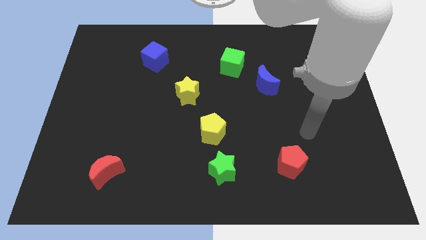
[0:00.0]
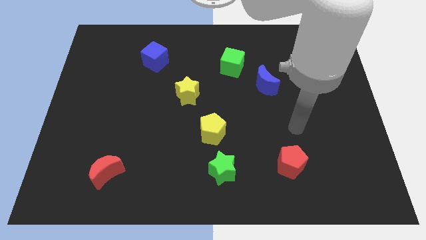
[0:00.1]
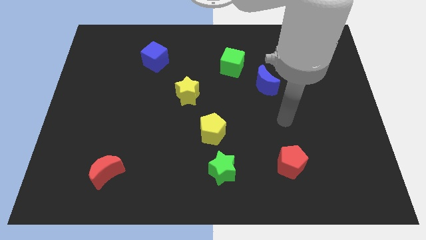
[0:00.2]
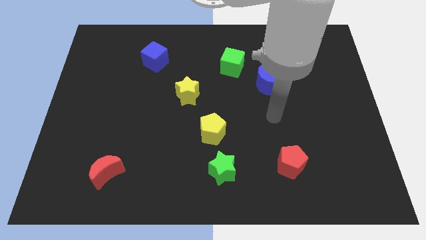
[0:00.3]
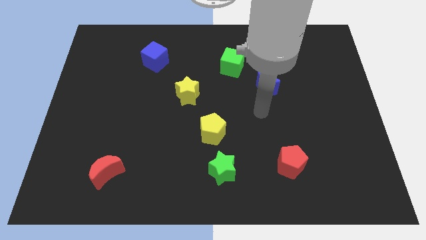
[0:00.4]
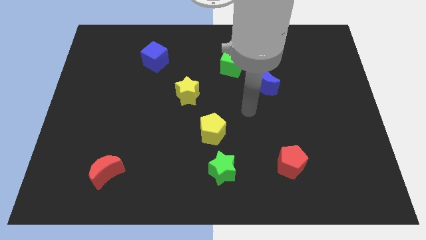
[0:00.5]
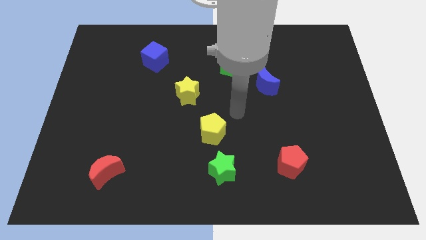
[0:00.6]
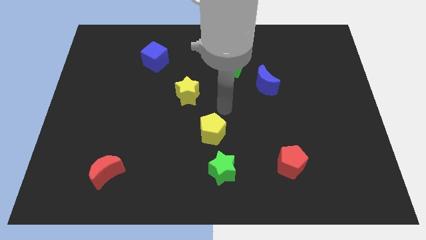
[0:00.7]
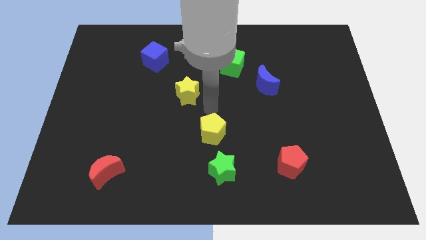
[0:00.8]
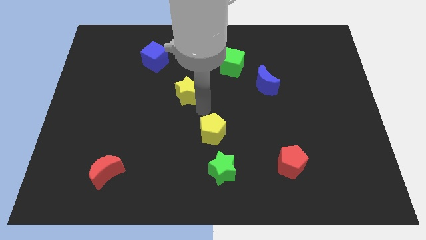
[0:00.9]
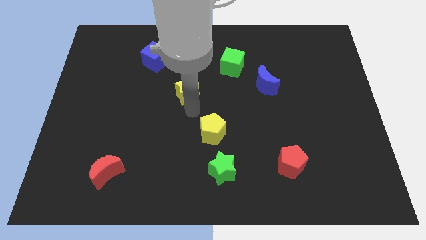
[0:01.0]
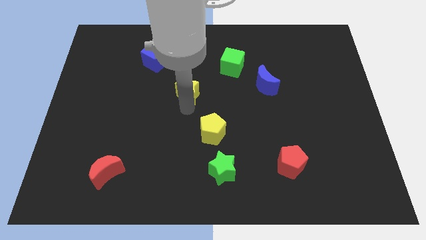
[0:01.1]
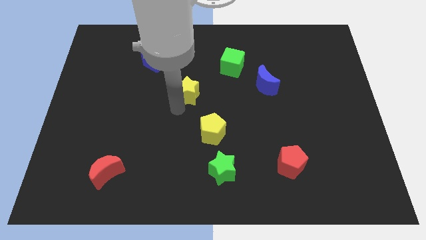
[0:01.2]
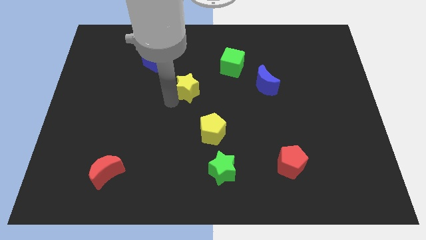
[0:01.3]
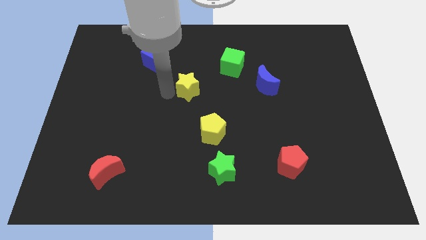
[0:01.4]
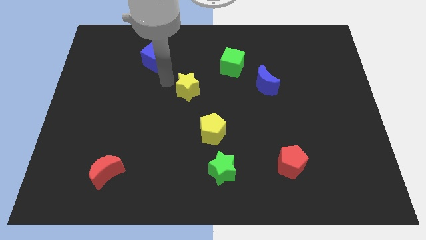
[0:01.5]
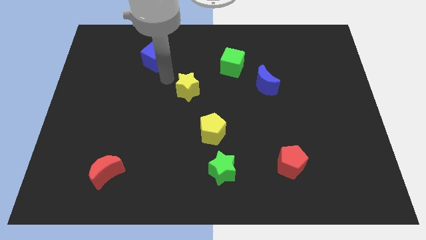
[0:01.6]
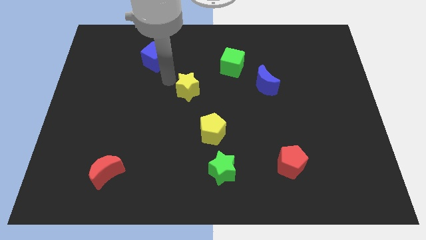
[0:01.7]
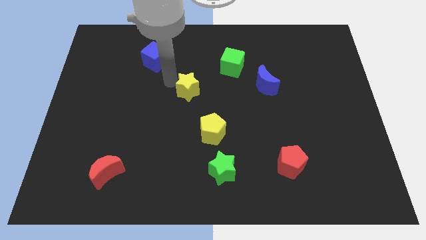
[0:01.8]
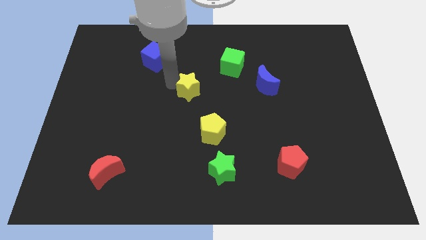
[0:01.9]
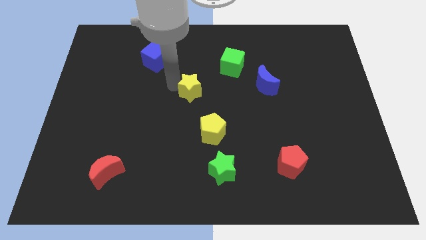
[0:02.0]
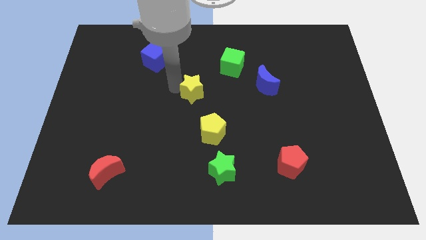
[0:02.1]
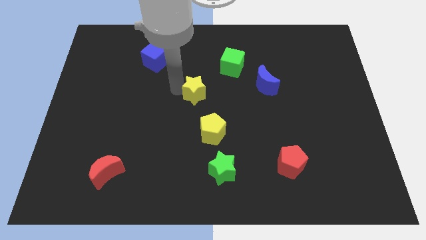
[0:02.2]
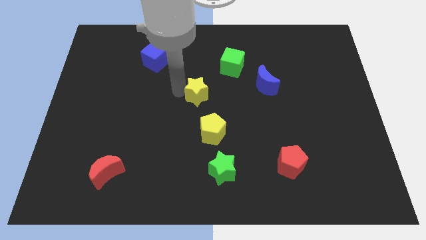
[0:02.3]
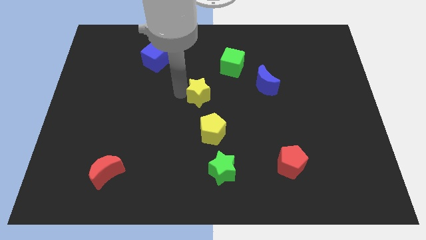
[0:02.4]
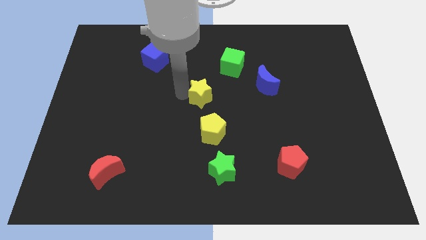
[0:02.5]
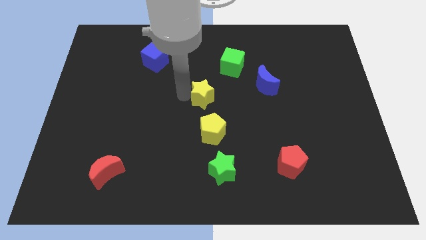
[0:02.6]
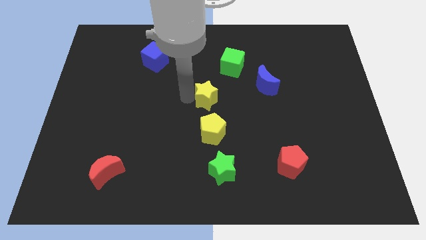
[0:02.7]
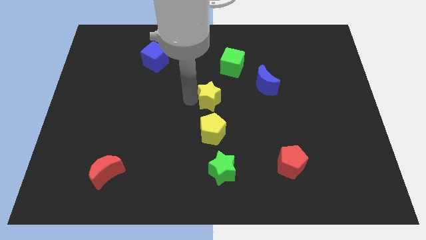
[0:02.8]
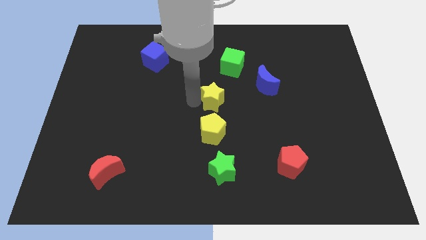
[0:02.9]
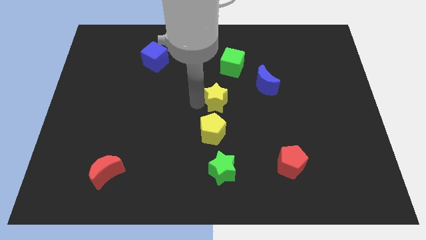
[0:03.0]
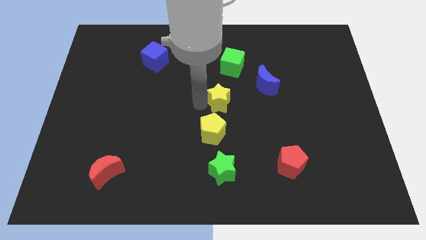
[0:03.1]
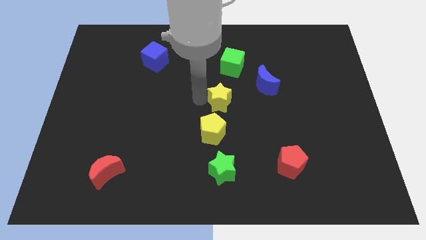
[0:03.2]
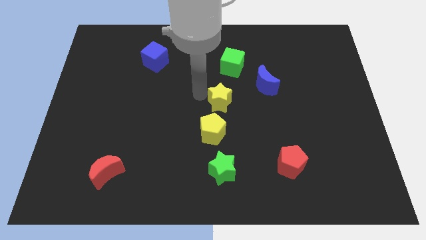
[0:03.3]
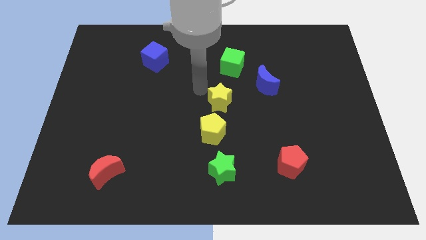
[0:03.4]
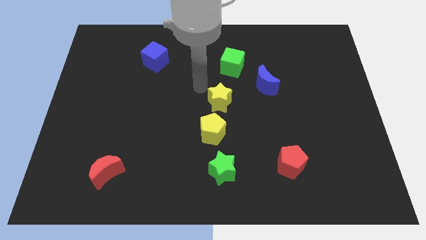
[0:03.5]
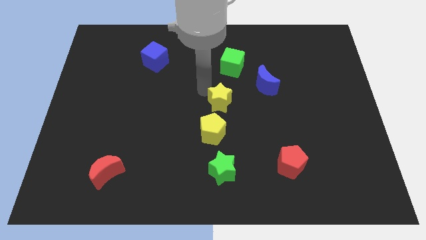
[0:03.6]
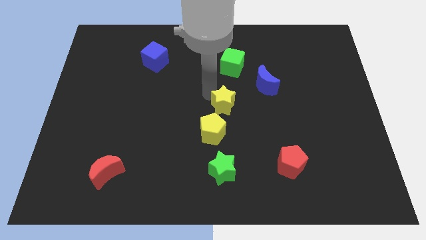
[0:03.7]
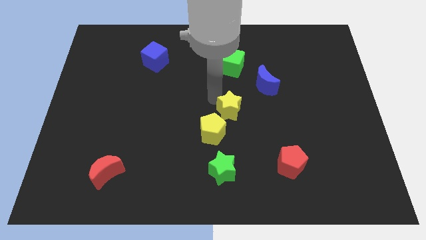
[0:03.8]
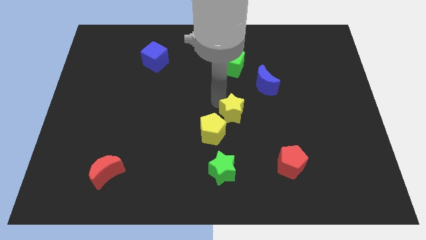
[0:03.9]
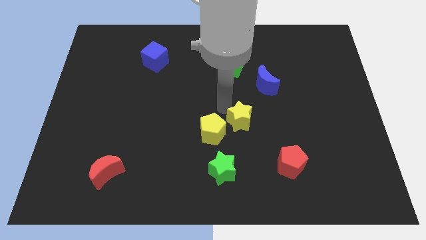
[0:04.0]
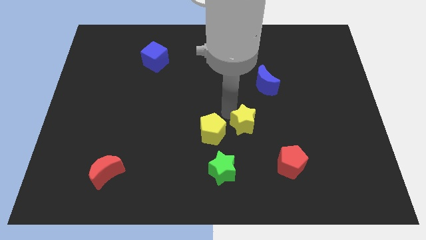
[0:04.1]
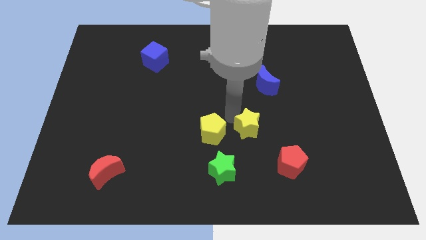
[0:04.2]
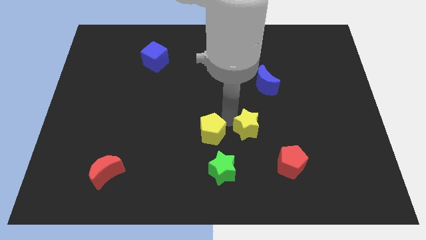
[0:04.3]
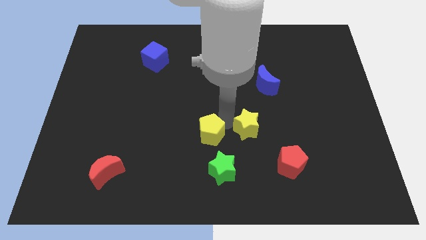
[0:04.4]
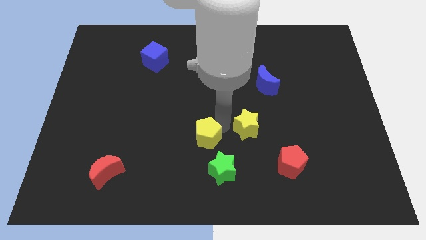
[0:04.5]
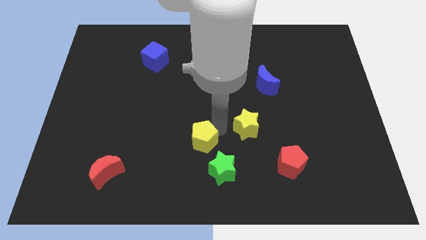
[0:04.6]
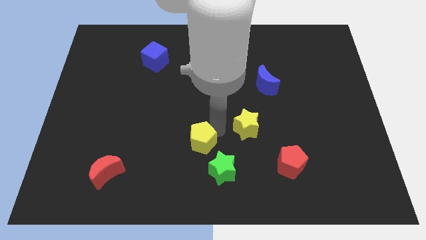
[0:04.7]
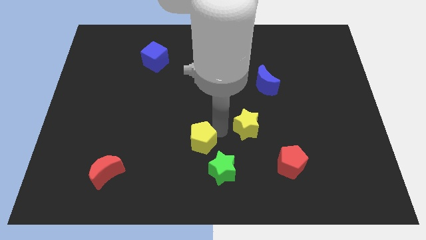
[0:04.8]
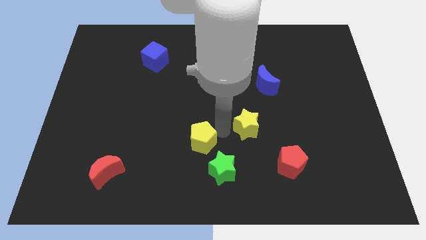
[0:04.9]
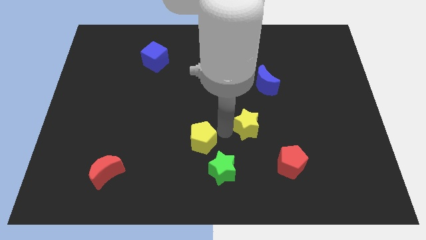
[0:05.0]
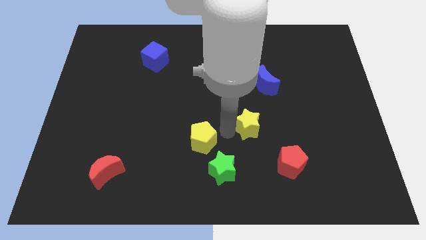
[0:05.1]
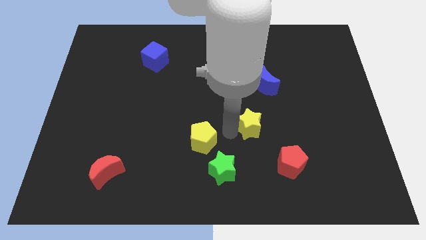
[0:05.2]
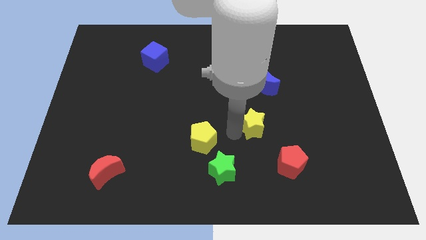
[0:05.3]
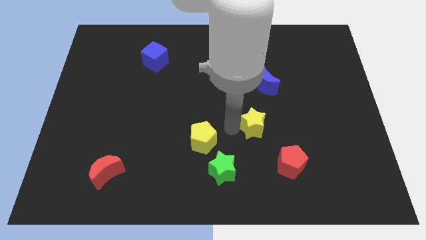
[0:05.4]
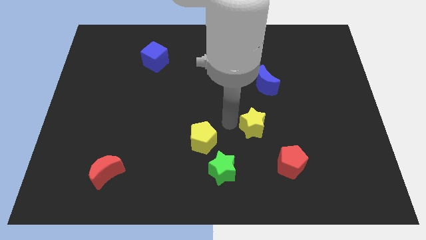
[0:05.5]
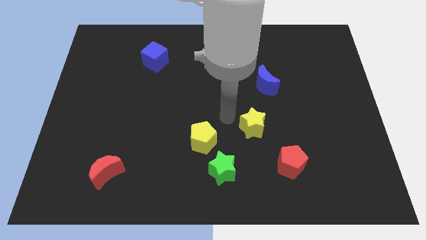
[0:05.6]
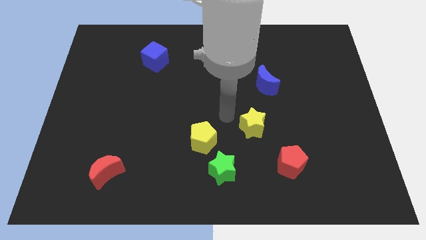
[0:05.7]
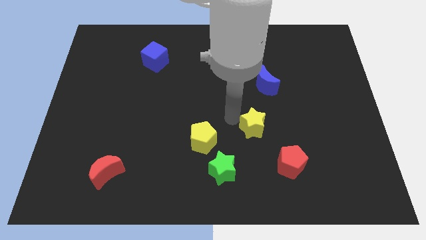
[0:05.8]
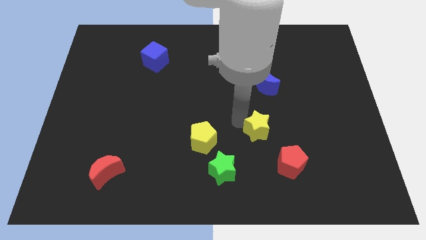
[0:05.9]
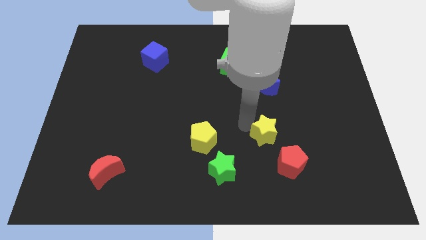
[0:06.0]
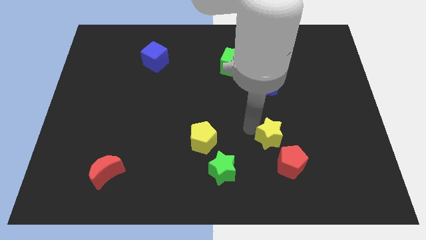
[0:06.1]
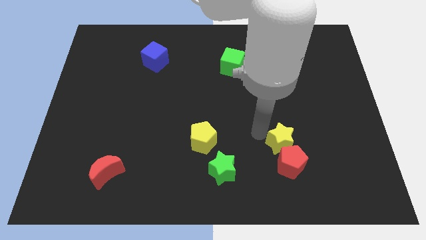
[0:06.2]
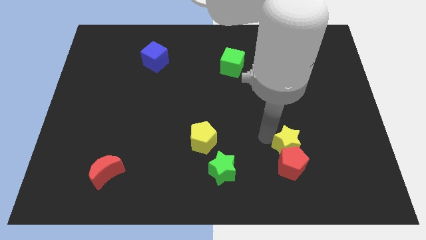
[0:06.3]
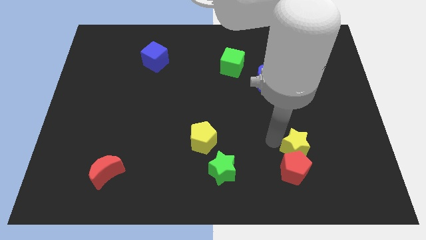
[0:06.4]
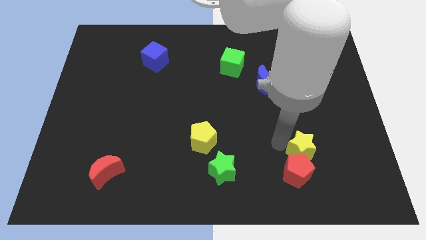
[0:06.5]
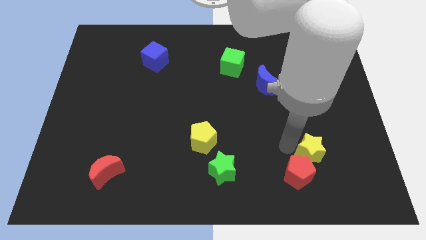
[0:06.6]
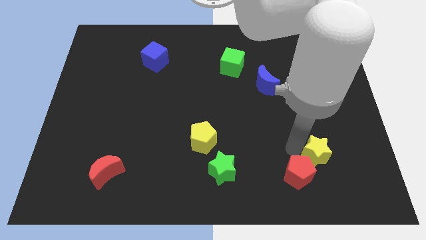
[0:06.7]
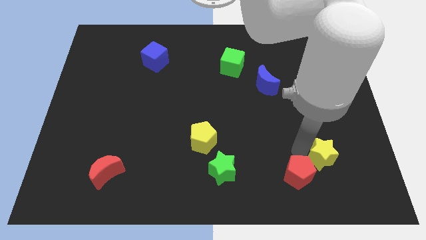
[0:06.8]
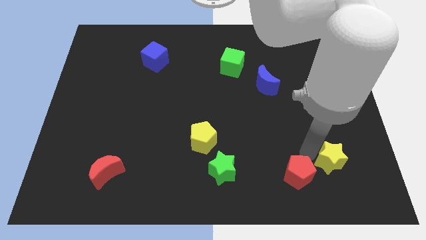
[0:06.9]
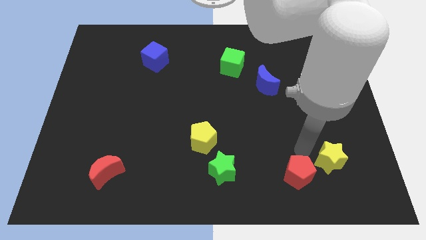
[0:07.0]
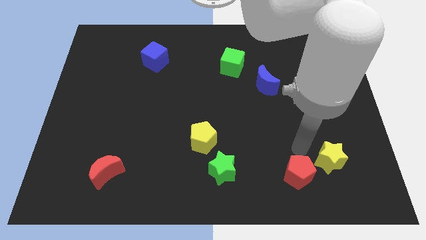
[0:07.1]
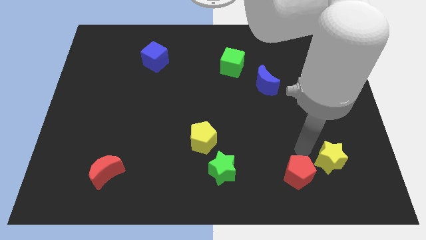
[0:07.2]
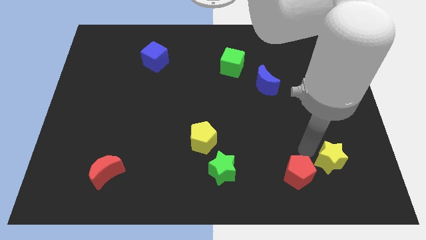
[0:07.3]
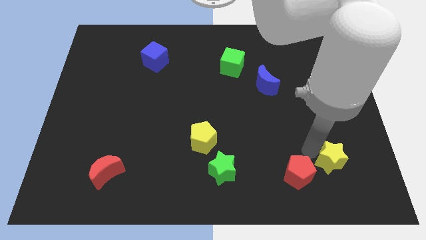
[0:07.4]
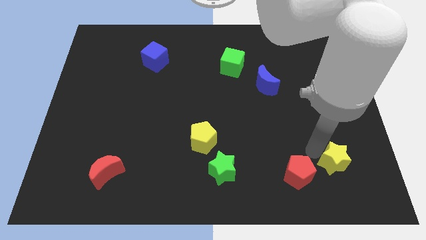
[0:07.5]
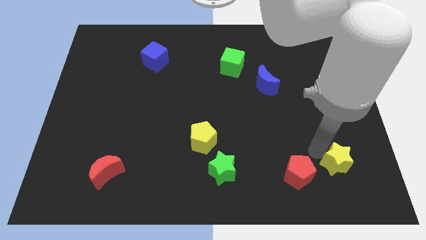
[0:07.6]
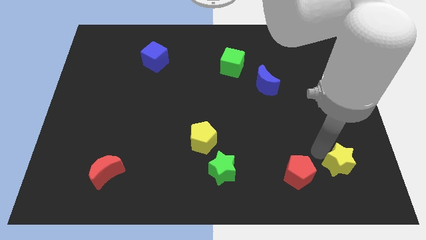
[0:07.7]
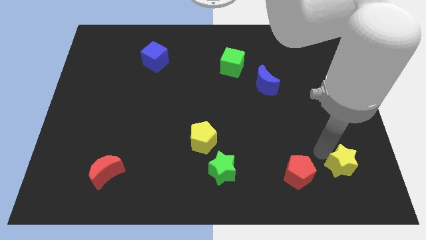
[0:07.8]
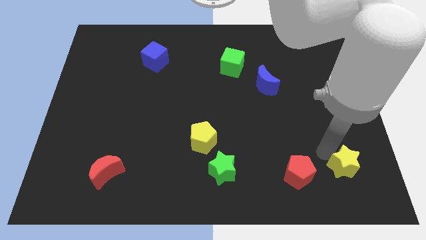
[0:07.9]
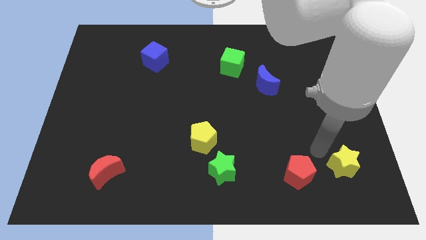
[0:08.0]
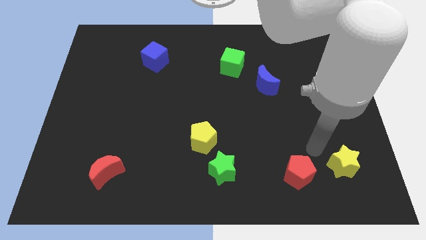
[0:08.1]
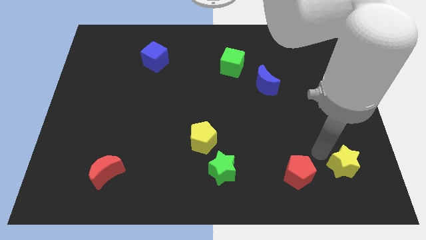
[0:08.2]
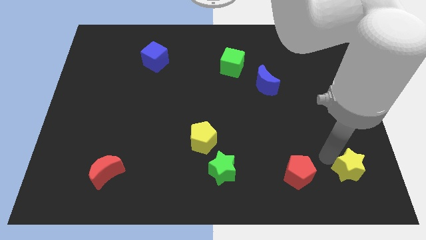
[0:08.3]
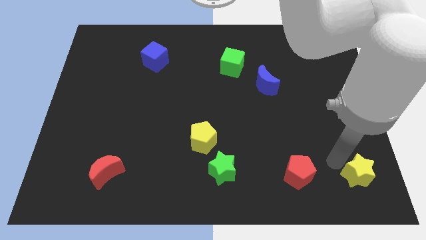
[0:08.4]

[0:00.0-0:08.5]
slide the yellow star to the bottom right of the board
